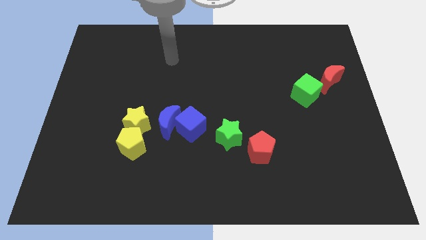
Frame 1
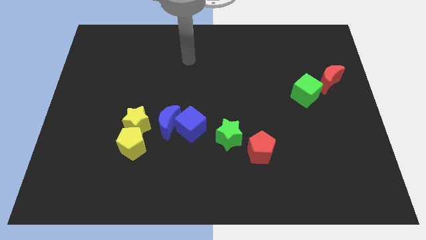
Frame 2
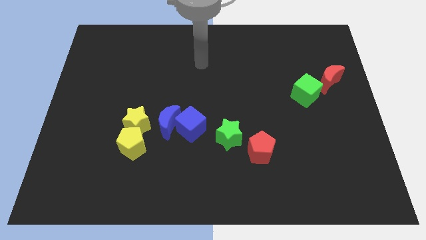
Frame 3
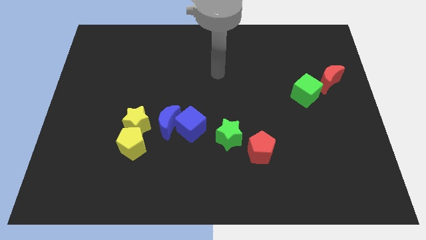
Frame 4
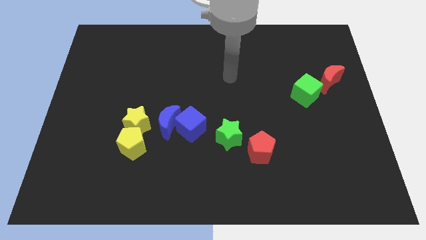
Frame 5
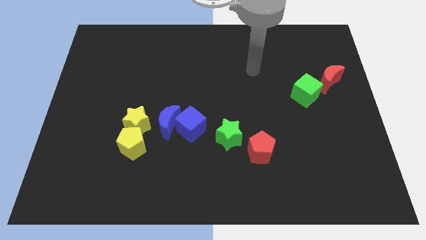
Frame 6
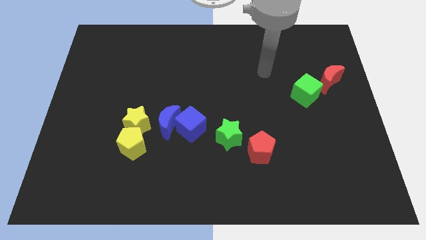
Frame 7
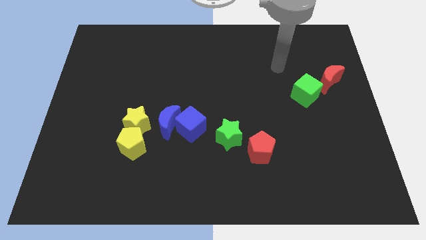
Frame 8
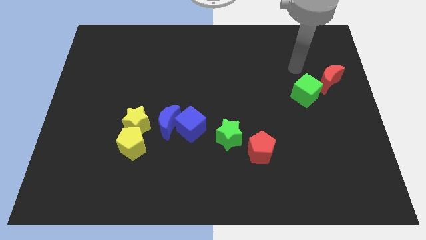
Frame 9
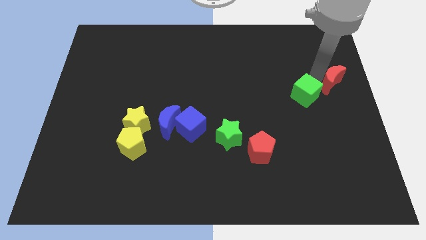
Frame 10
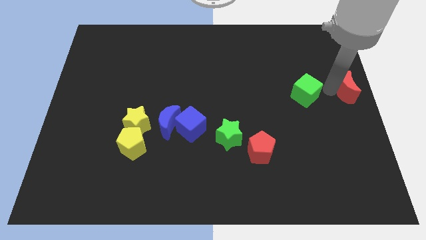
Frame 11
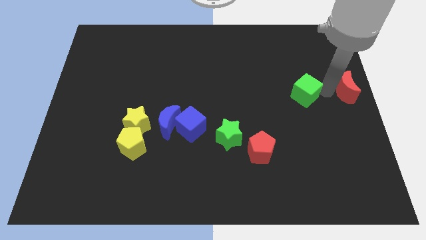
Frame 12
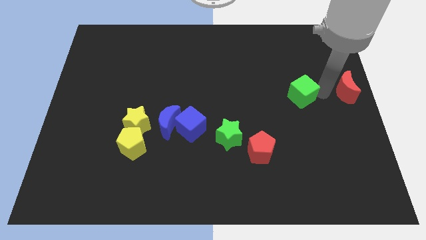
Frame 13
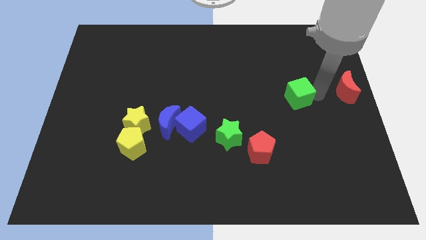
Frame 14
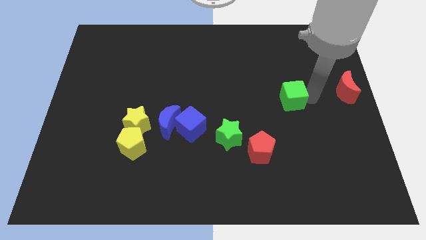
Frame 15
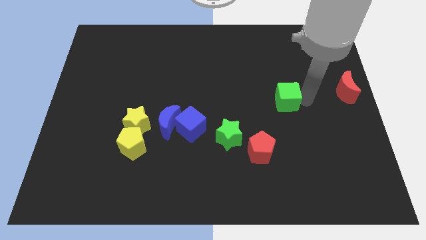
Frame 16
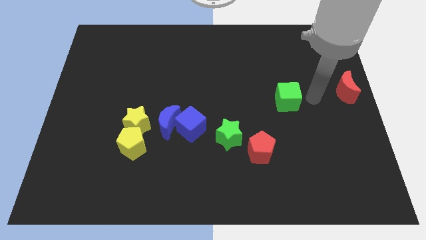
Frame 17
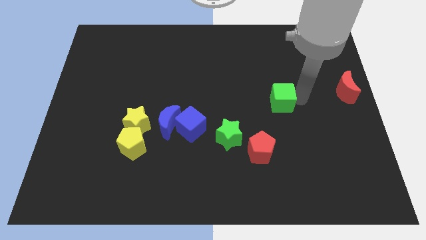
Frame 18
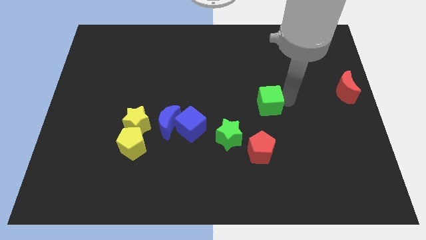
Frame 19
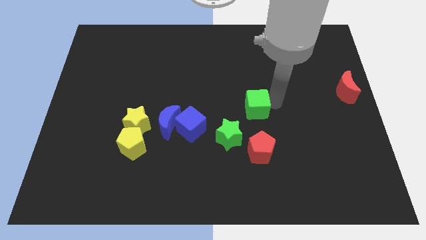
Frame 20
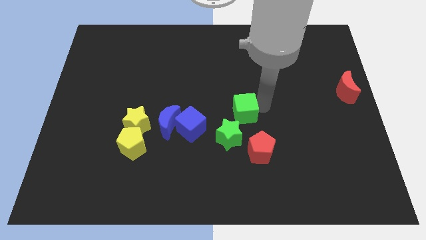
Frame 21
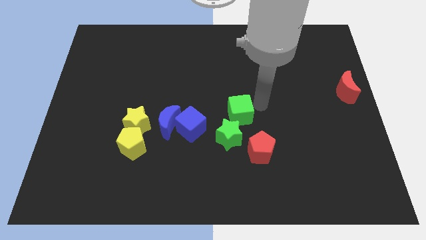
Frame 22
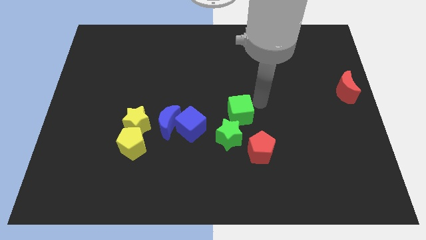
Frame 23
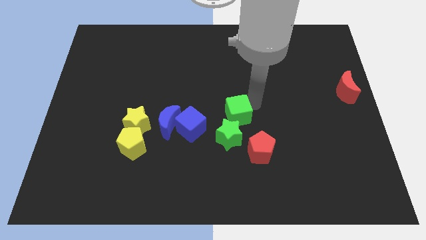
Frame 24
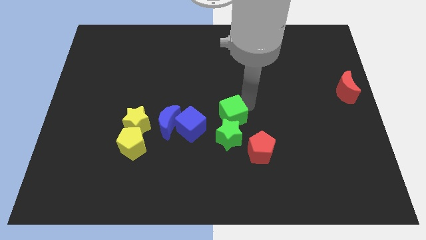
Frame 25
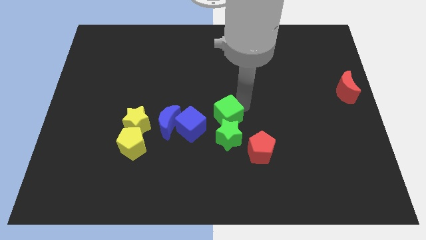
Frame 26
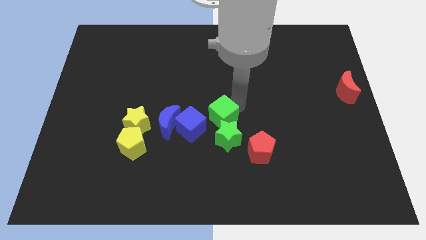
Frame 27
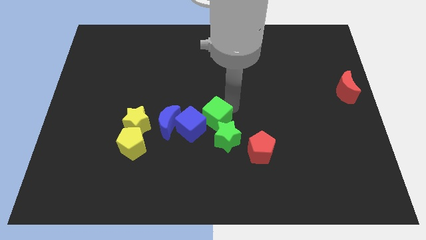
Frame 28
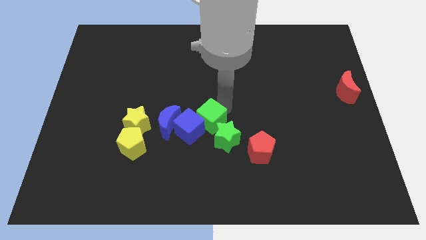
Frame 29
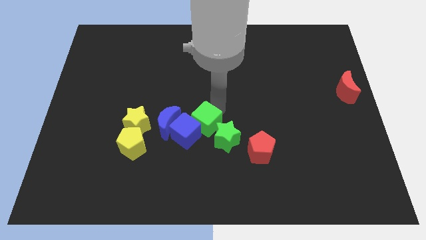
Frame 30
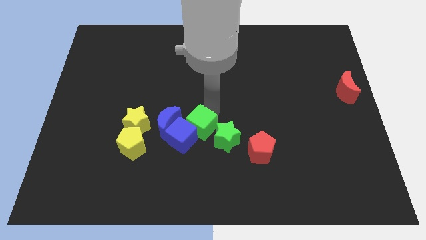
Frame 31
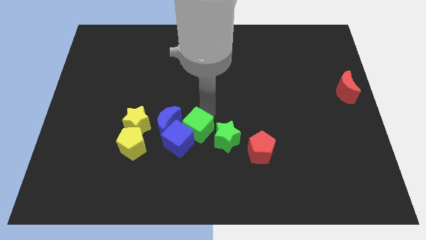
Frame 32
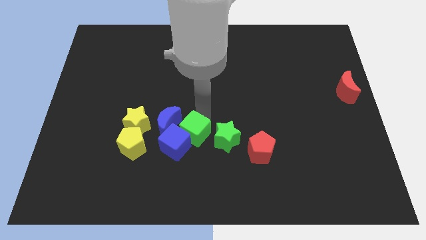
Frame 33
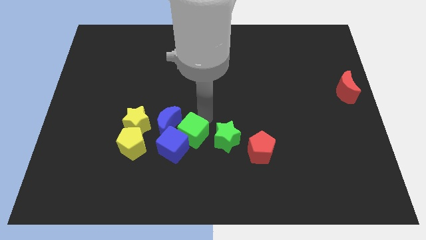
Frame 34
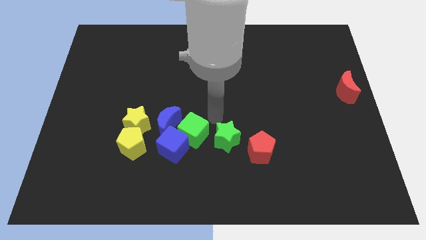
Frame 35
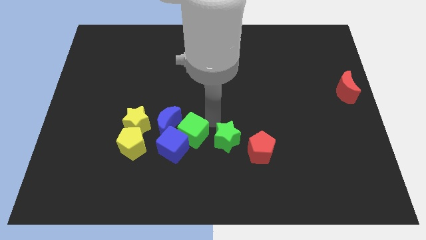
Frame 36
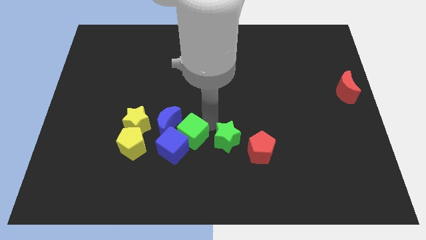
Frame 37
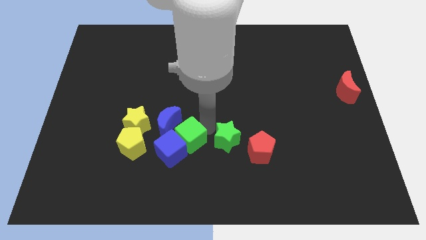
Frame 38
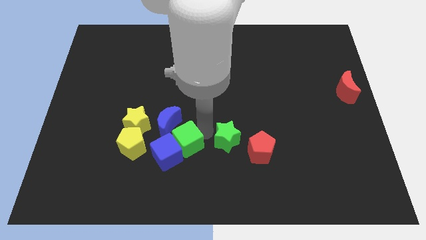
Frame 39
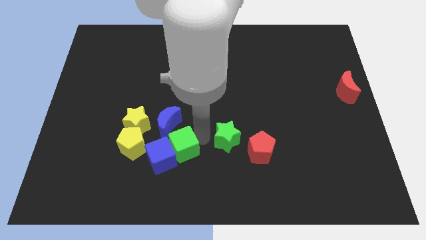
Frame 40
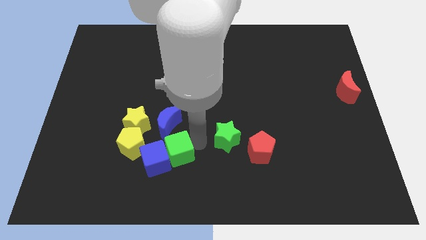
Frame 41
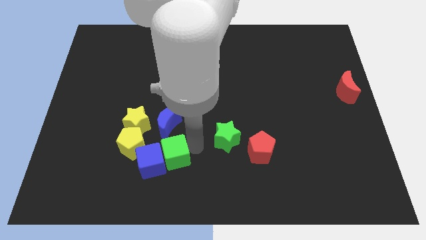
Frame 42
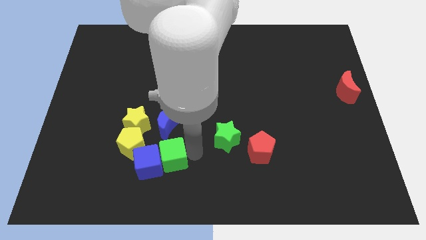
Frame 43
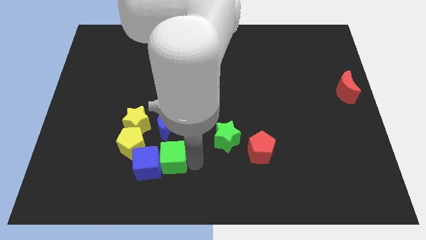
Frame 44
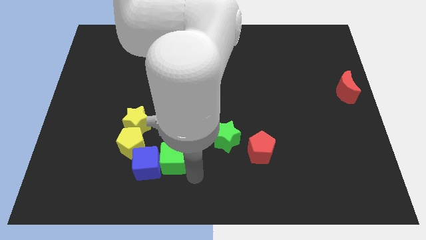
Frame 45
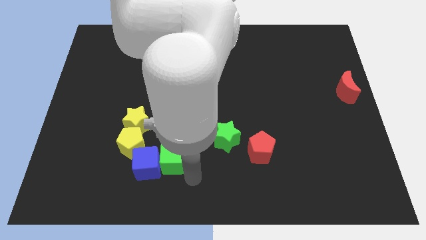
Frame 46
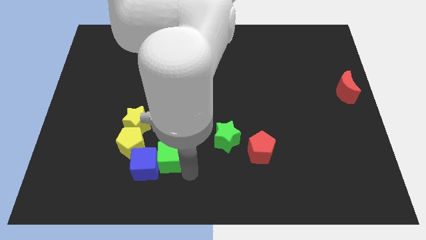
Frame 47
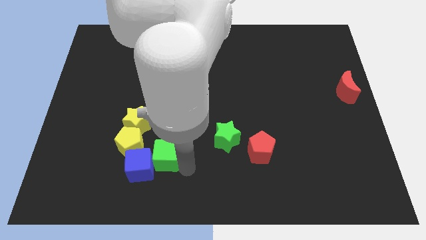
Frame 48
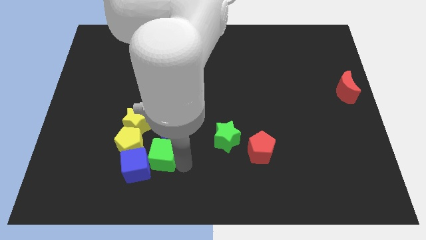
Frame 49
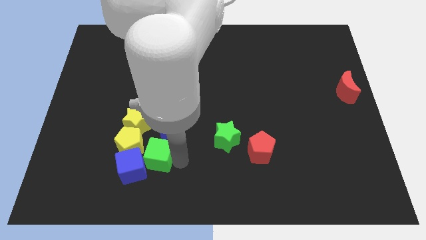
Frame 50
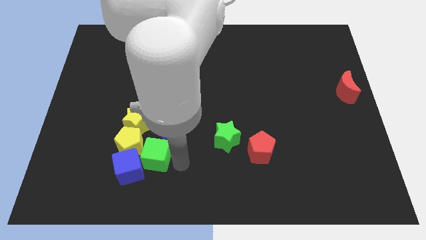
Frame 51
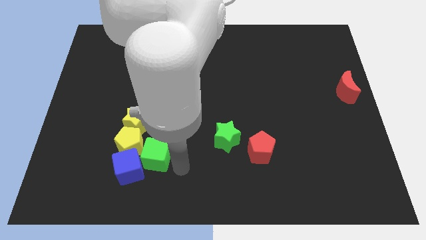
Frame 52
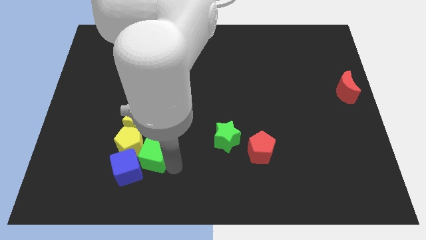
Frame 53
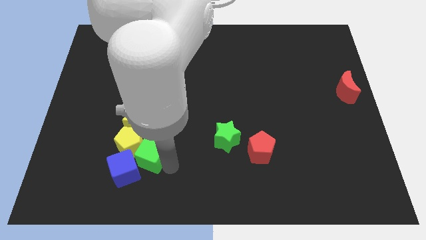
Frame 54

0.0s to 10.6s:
slide the green cube next to the yellow pentagon

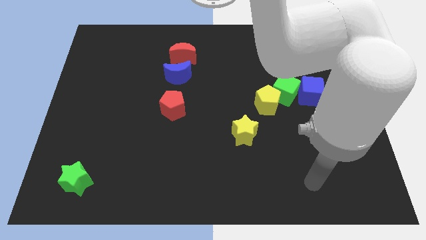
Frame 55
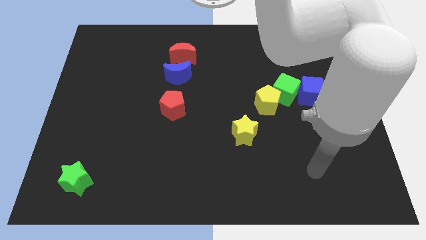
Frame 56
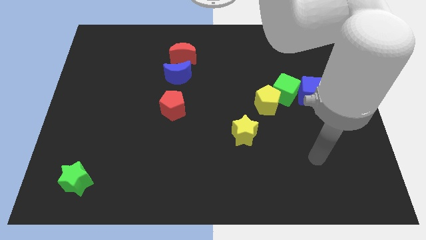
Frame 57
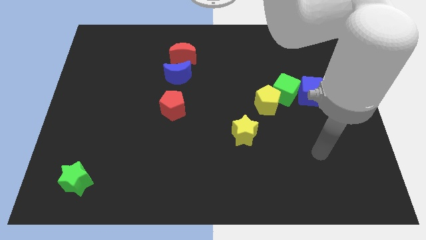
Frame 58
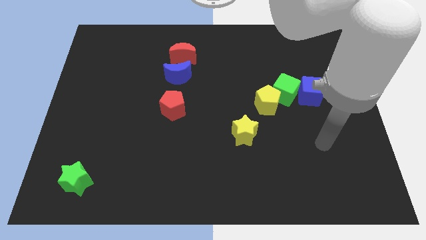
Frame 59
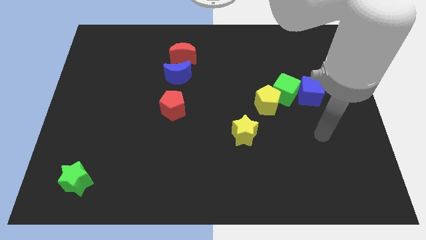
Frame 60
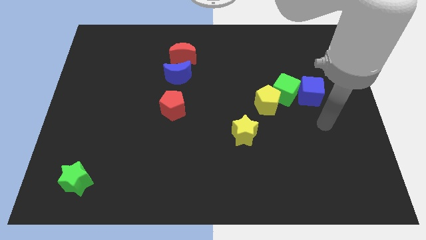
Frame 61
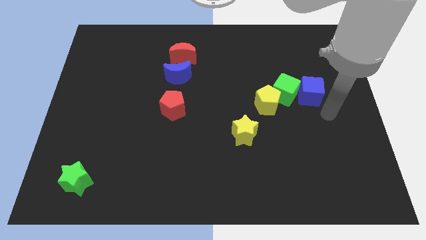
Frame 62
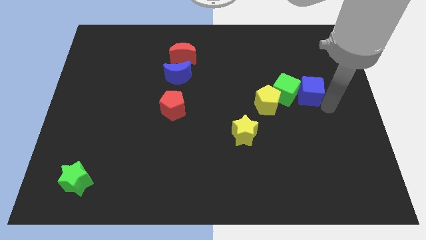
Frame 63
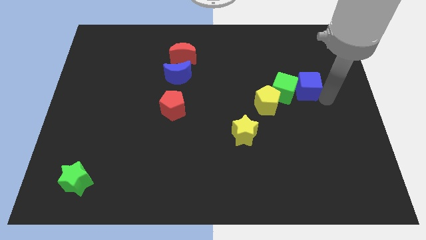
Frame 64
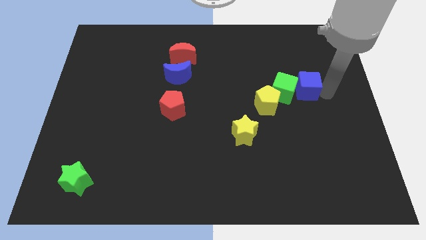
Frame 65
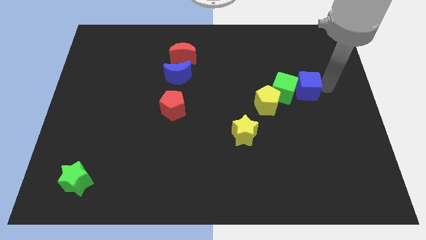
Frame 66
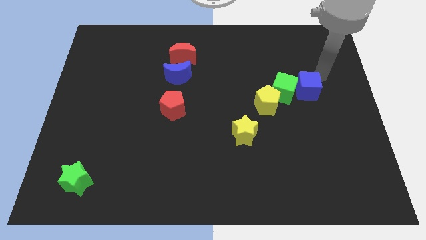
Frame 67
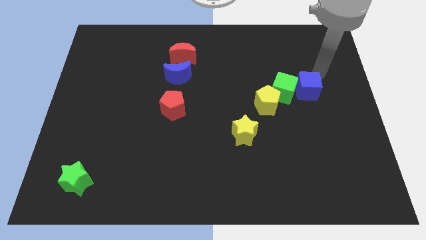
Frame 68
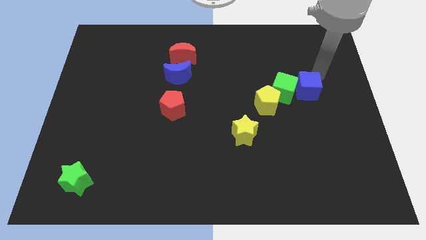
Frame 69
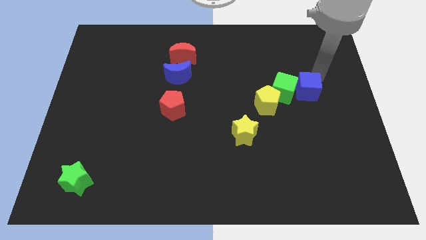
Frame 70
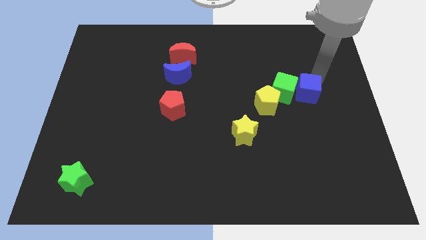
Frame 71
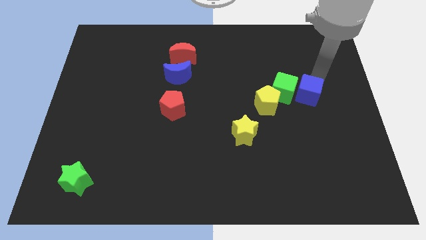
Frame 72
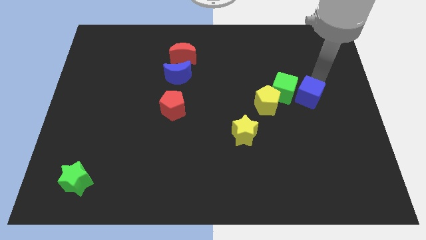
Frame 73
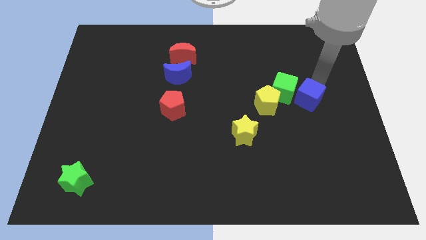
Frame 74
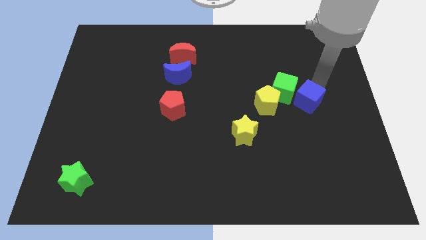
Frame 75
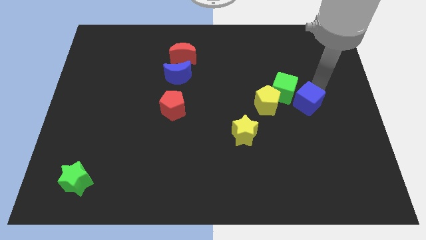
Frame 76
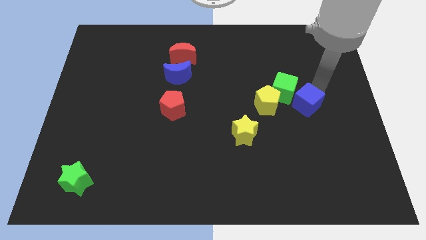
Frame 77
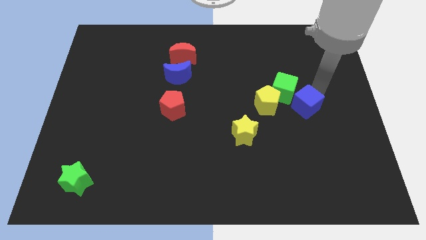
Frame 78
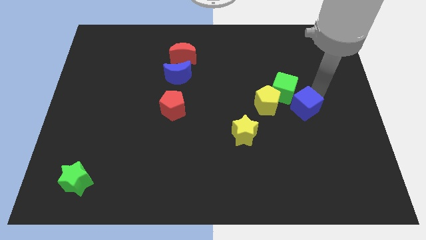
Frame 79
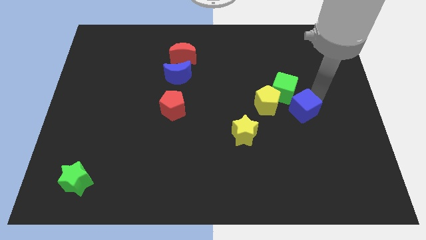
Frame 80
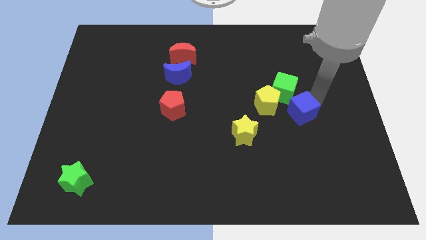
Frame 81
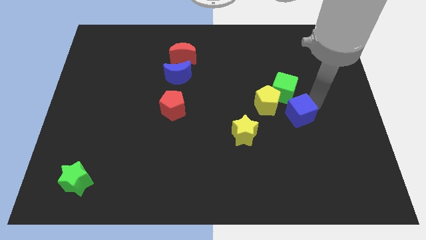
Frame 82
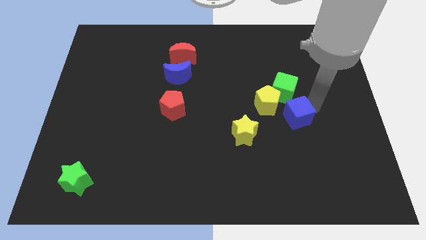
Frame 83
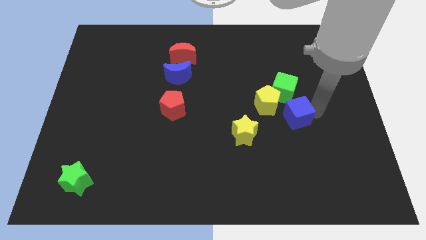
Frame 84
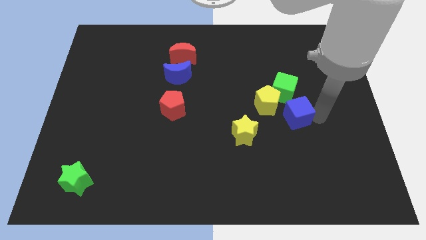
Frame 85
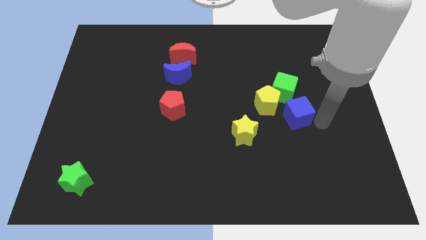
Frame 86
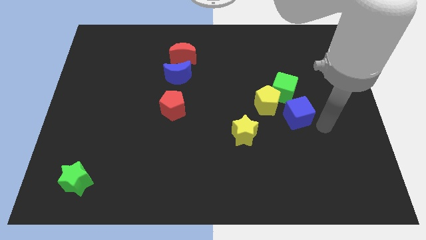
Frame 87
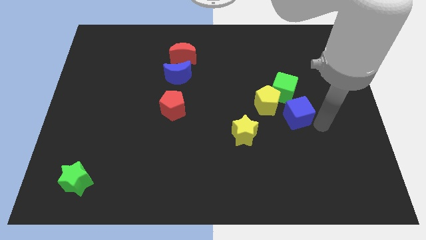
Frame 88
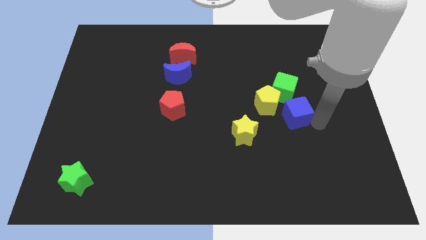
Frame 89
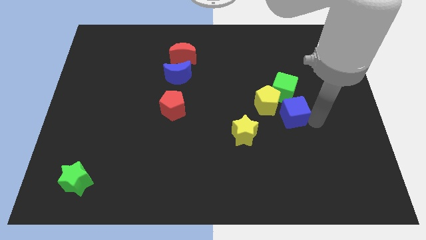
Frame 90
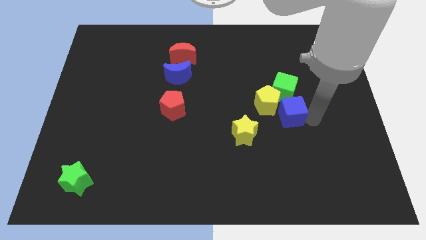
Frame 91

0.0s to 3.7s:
slide the blue cube towards the yellow pentagon
